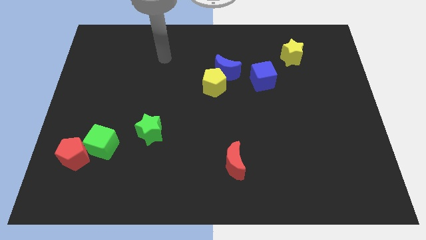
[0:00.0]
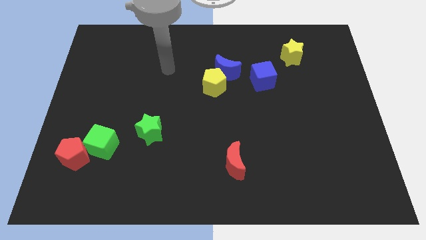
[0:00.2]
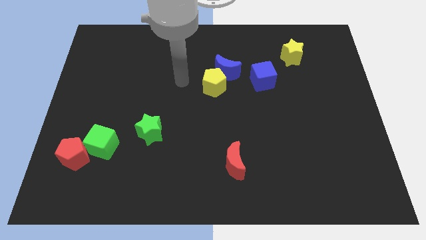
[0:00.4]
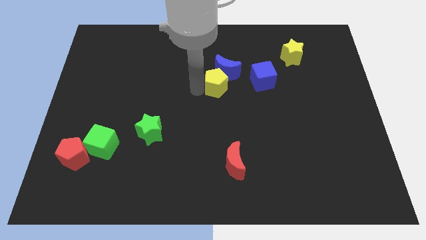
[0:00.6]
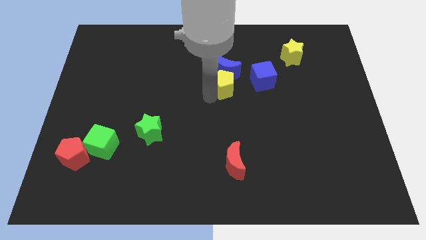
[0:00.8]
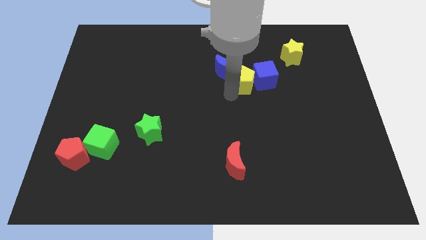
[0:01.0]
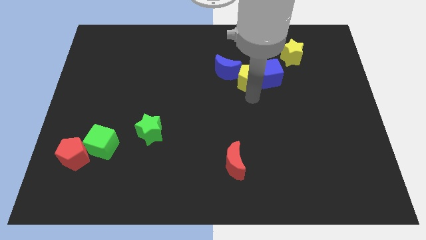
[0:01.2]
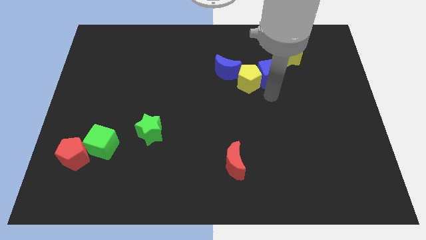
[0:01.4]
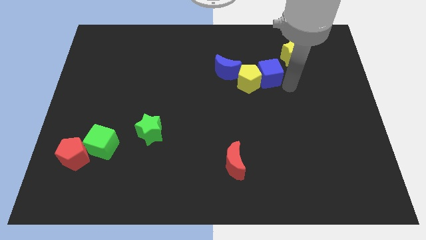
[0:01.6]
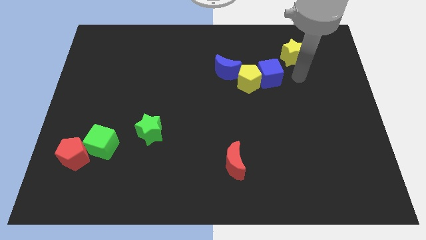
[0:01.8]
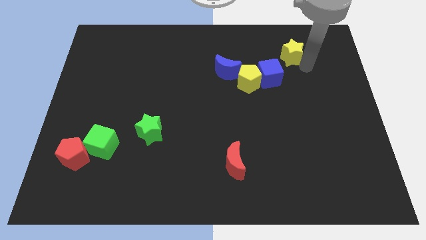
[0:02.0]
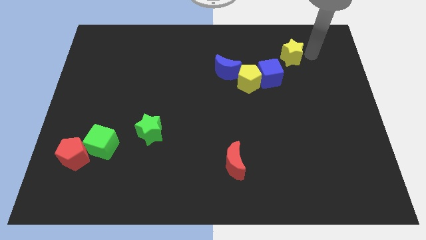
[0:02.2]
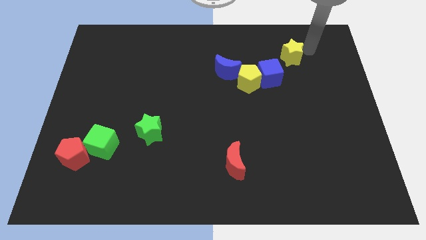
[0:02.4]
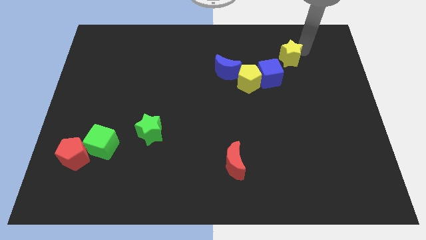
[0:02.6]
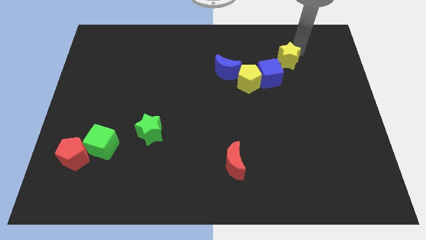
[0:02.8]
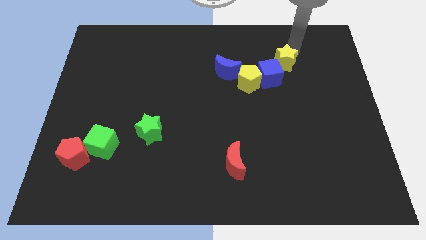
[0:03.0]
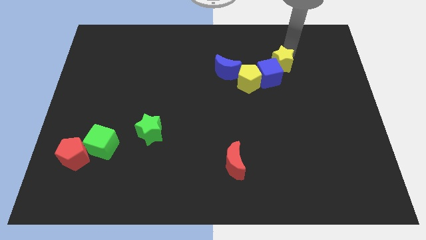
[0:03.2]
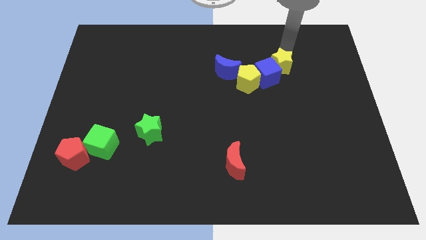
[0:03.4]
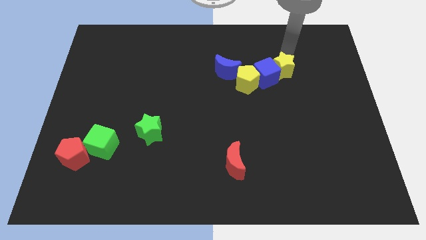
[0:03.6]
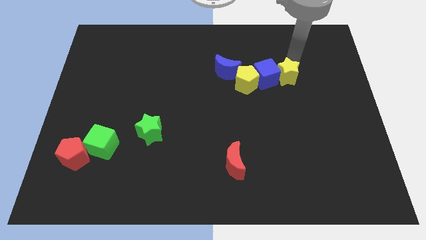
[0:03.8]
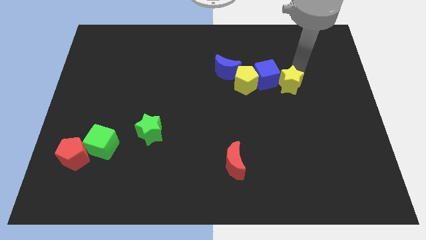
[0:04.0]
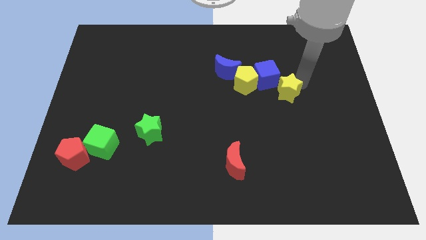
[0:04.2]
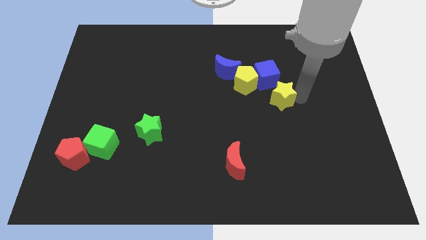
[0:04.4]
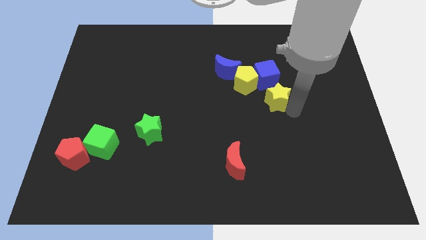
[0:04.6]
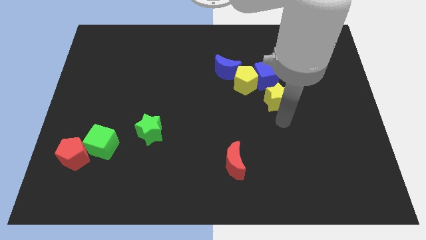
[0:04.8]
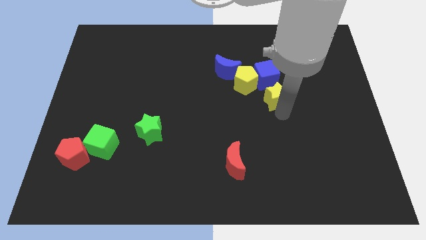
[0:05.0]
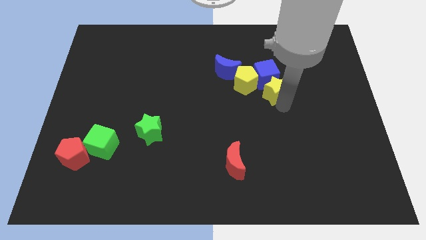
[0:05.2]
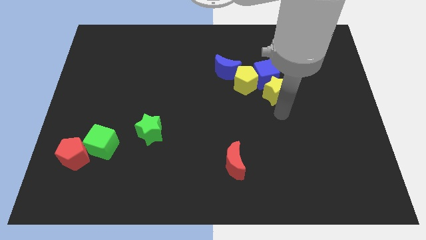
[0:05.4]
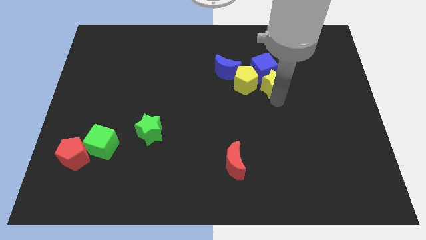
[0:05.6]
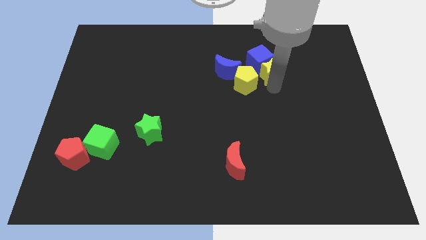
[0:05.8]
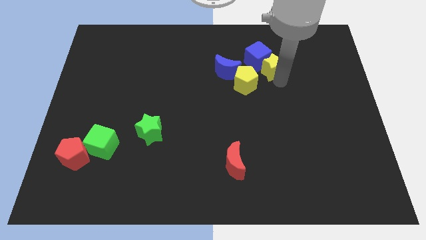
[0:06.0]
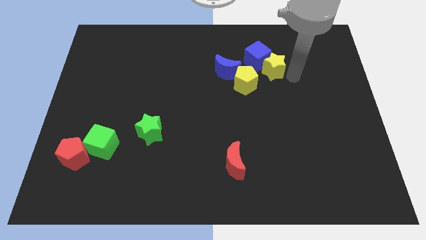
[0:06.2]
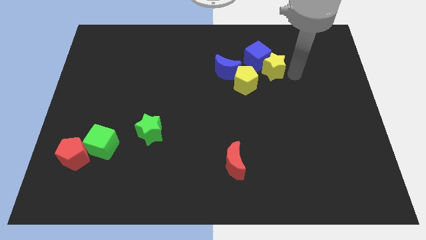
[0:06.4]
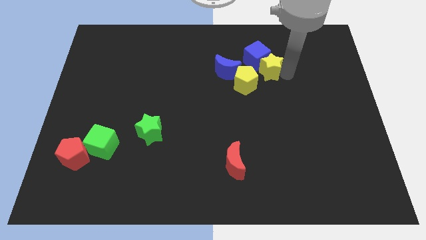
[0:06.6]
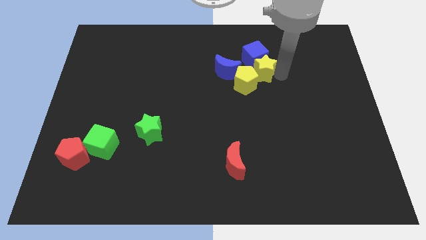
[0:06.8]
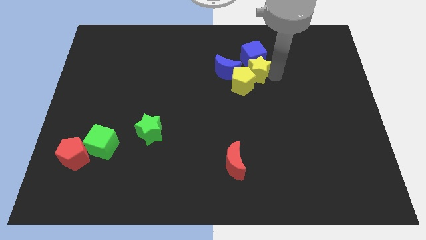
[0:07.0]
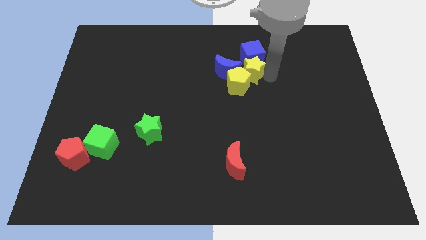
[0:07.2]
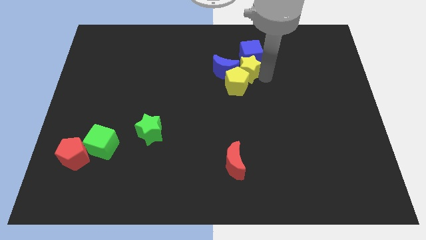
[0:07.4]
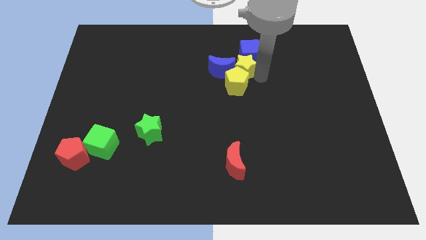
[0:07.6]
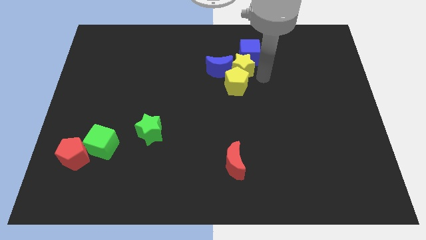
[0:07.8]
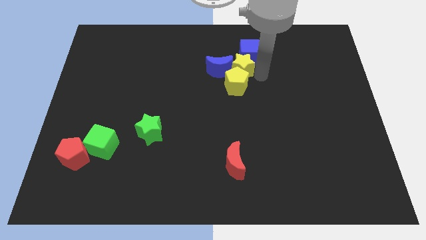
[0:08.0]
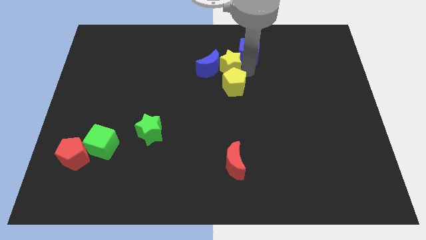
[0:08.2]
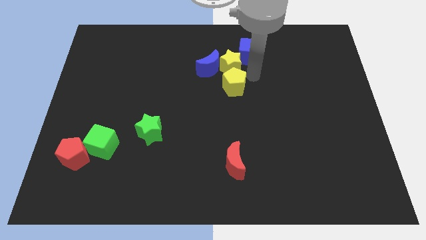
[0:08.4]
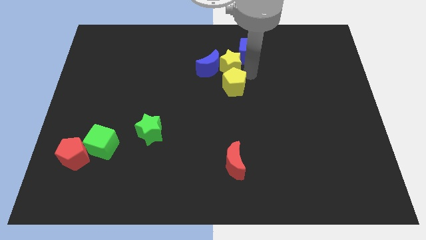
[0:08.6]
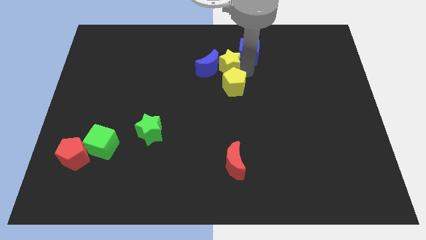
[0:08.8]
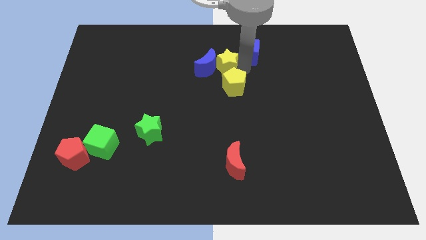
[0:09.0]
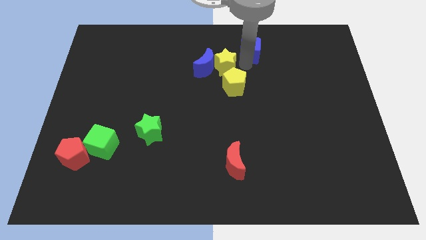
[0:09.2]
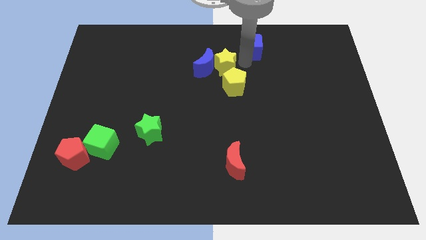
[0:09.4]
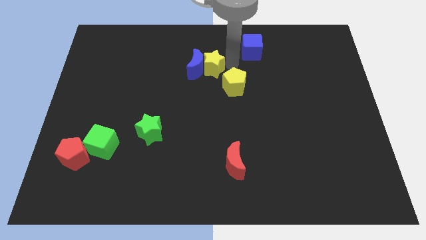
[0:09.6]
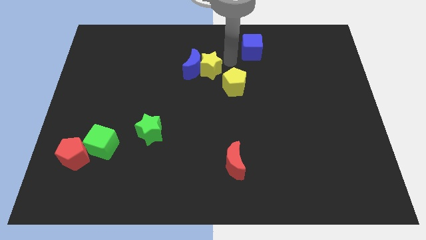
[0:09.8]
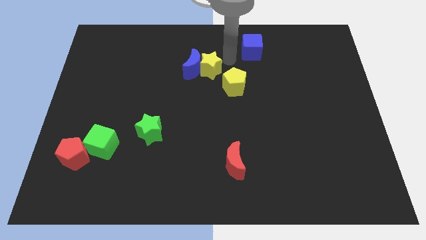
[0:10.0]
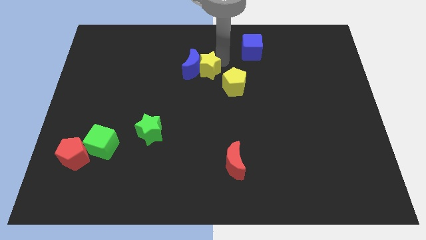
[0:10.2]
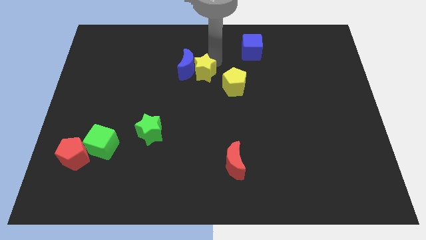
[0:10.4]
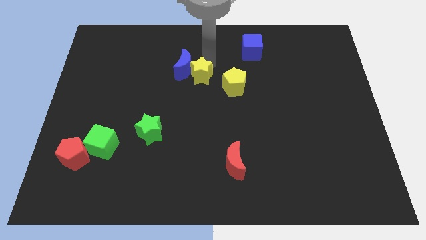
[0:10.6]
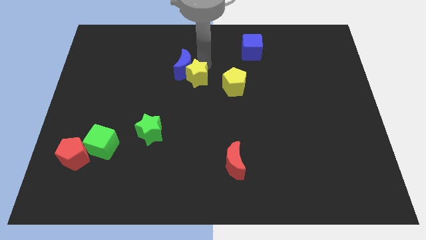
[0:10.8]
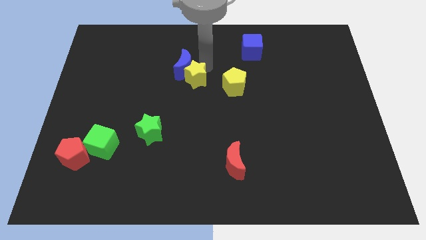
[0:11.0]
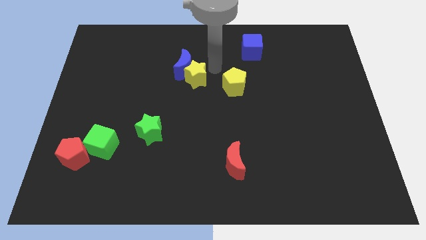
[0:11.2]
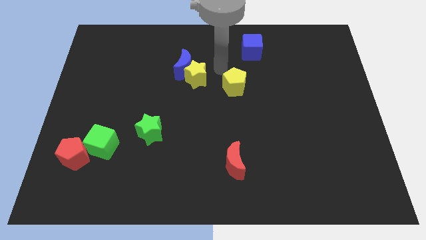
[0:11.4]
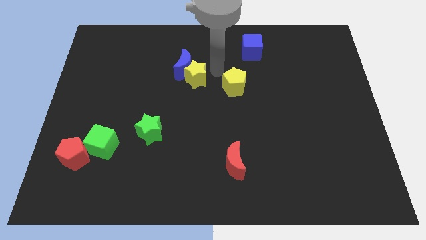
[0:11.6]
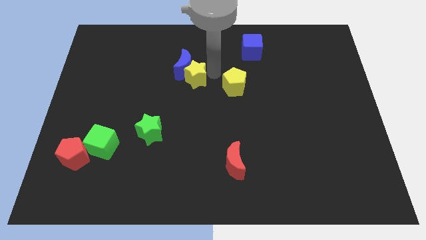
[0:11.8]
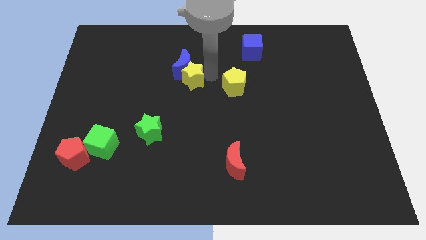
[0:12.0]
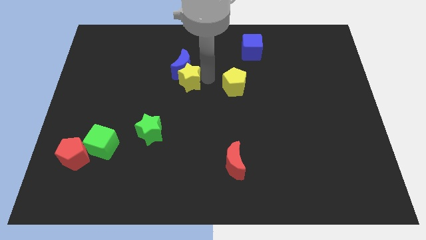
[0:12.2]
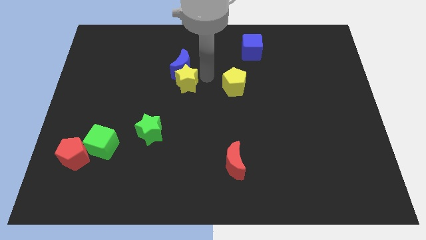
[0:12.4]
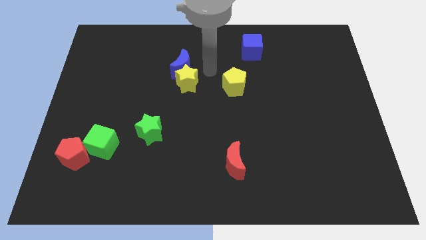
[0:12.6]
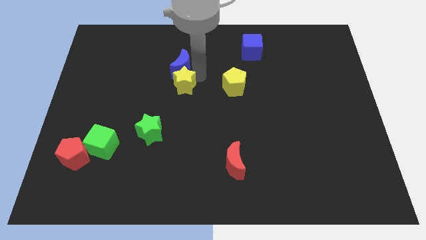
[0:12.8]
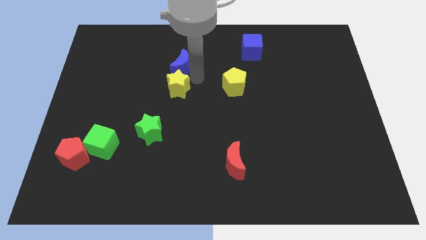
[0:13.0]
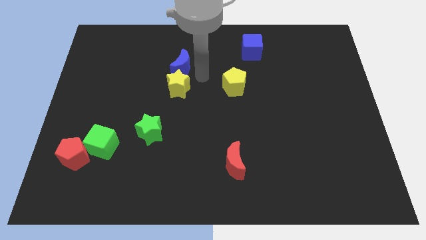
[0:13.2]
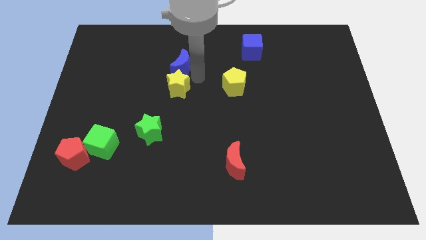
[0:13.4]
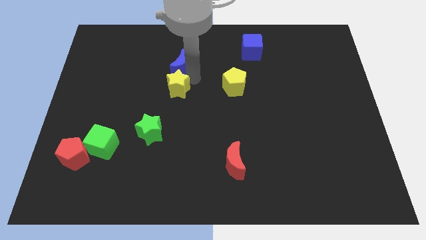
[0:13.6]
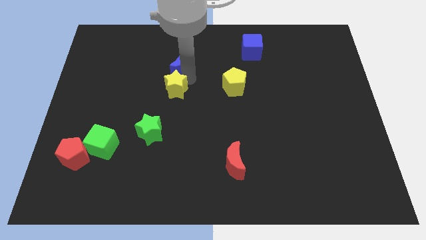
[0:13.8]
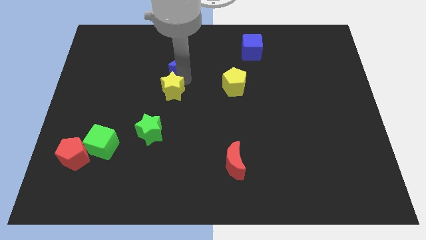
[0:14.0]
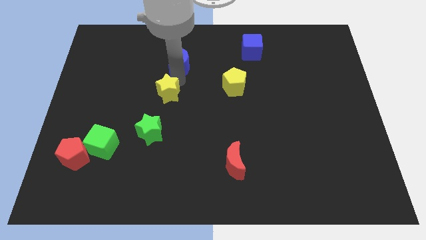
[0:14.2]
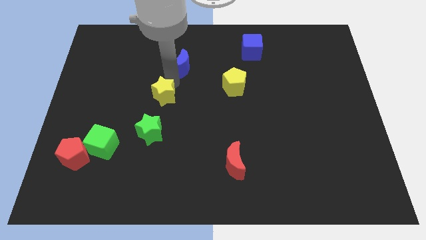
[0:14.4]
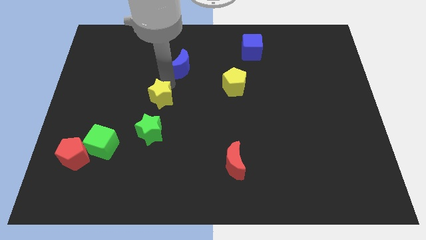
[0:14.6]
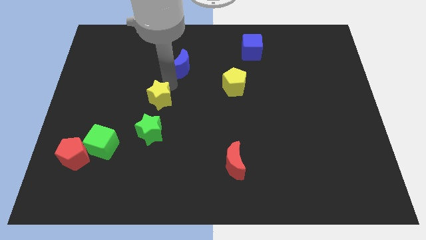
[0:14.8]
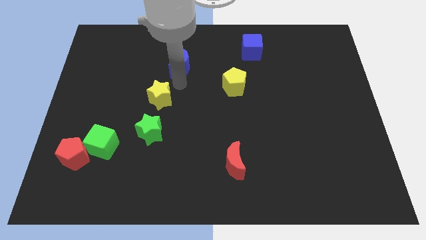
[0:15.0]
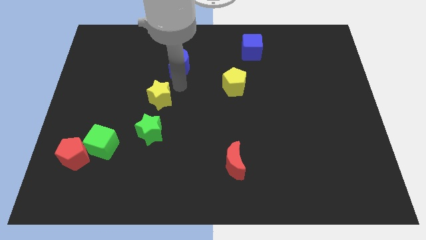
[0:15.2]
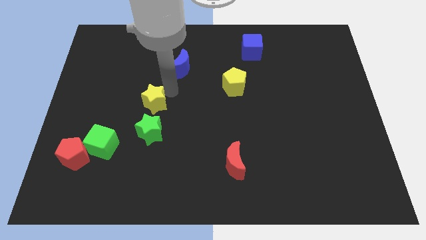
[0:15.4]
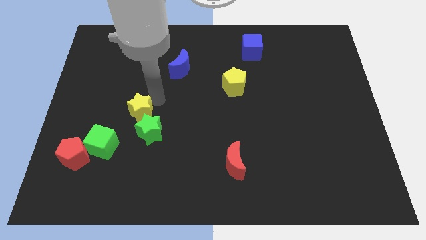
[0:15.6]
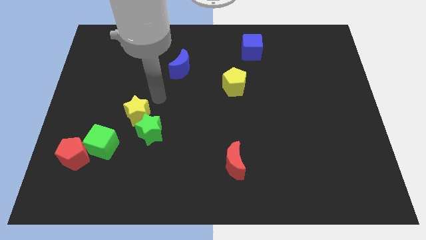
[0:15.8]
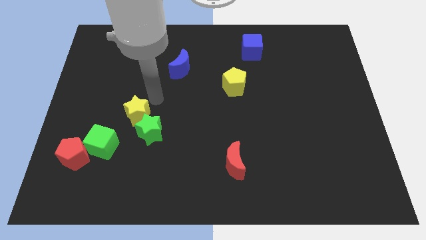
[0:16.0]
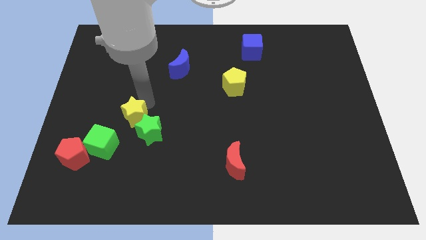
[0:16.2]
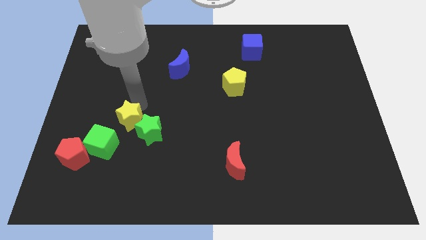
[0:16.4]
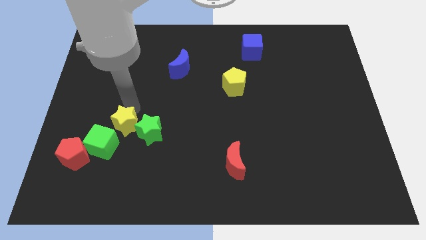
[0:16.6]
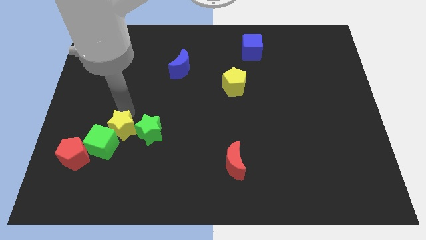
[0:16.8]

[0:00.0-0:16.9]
push the yellow star close to the green cube
